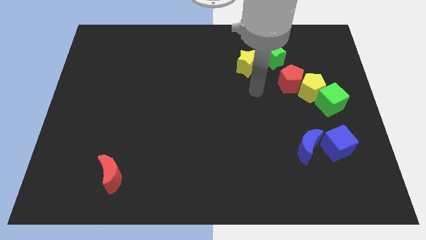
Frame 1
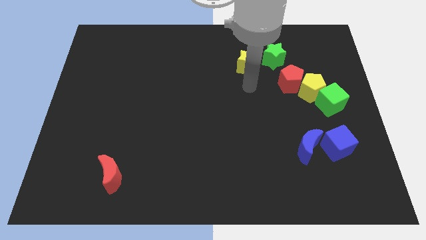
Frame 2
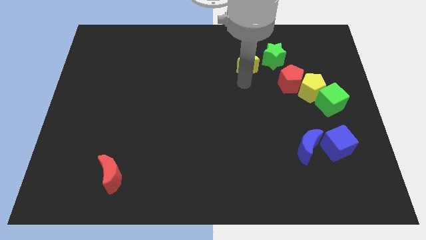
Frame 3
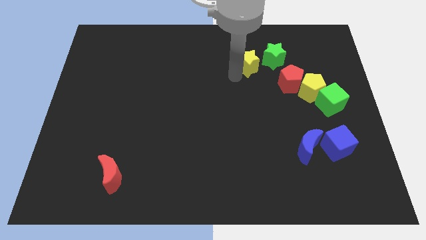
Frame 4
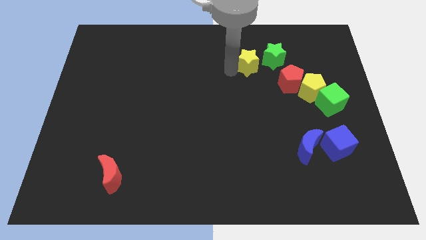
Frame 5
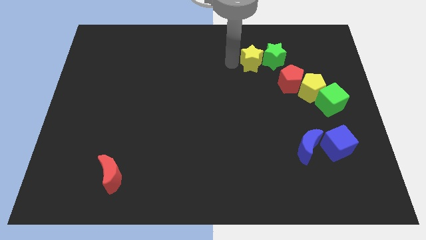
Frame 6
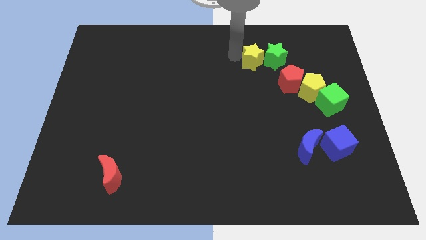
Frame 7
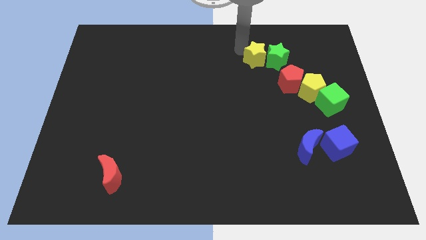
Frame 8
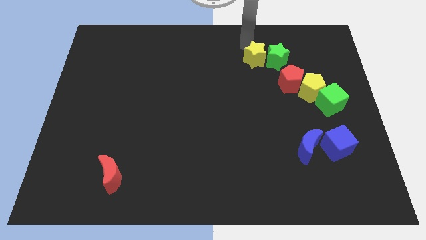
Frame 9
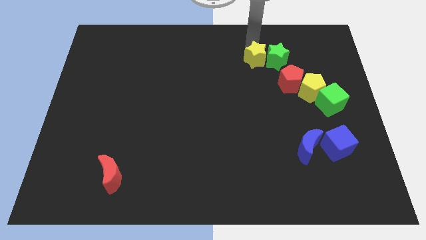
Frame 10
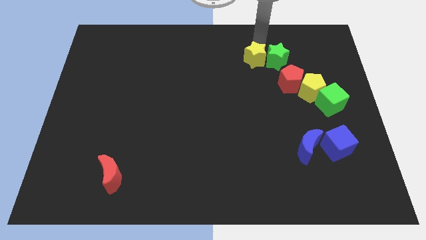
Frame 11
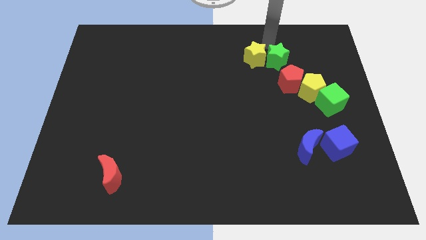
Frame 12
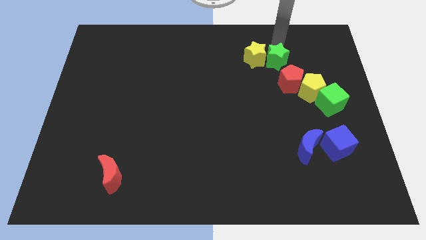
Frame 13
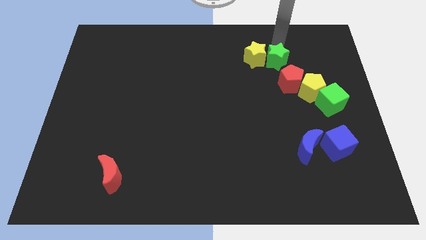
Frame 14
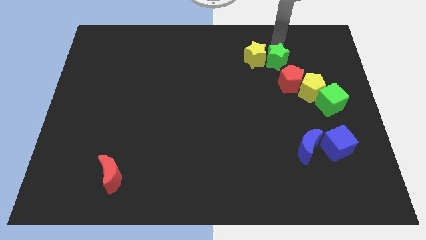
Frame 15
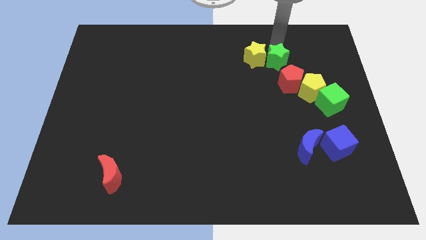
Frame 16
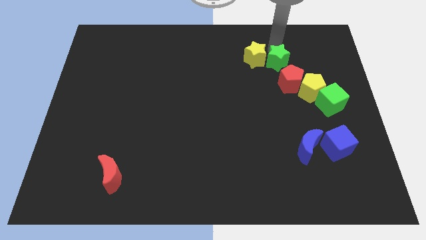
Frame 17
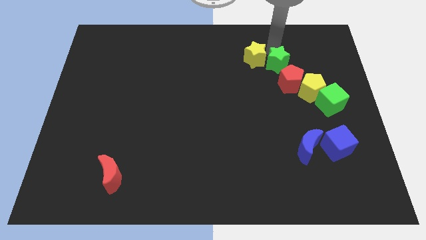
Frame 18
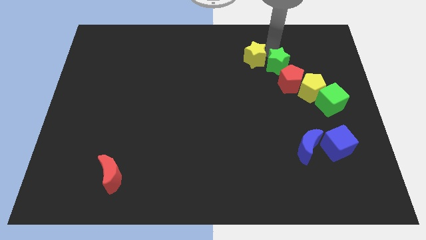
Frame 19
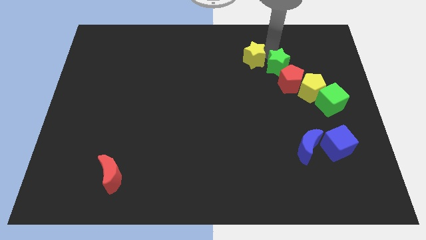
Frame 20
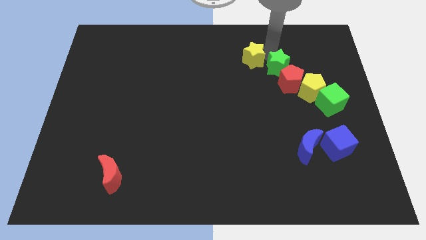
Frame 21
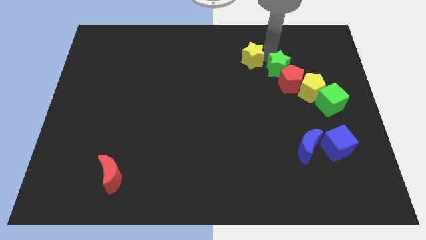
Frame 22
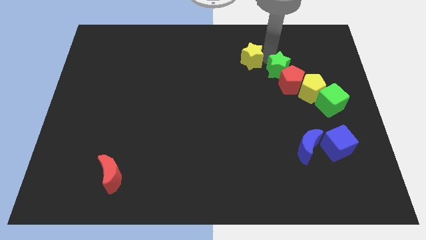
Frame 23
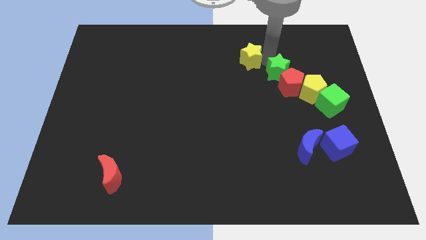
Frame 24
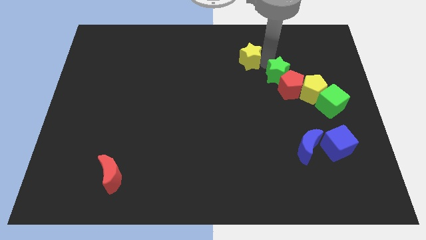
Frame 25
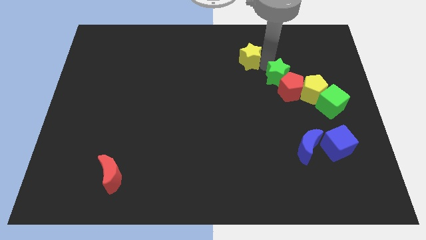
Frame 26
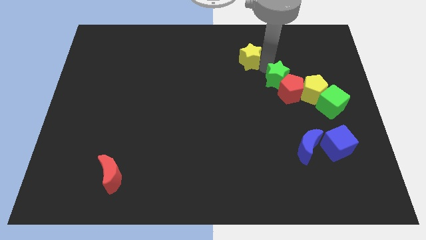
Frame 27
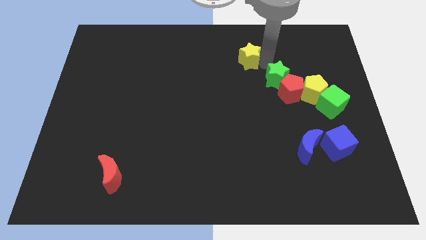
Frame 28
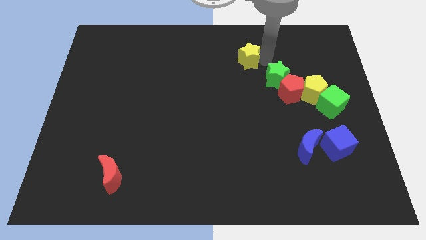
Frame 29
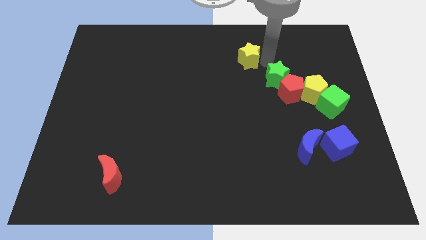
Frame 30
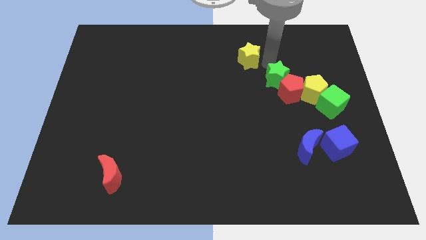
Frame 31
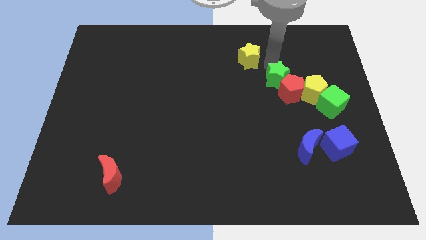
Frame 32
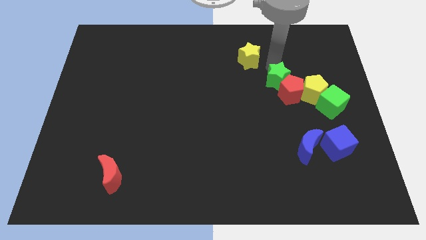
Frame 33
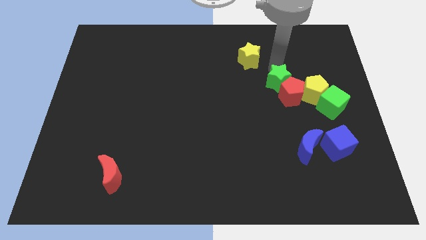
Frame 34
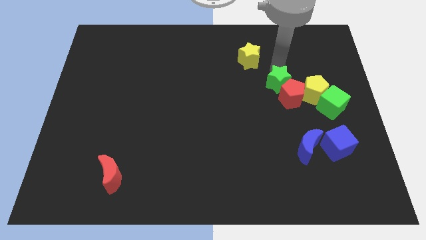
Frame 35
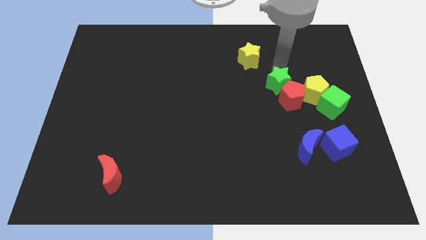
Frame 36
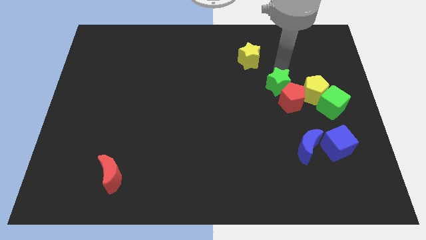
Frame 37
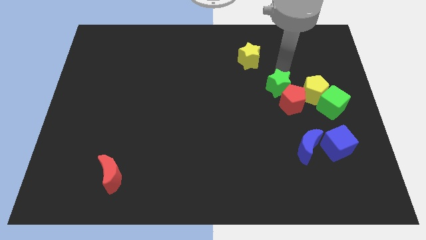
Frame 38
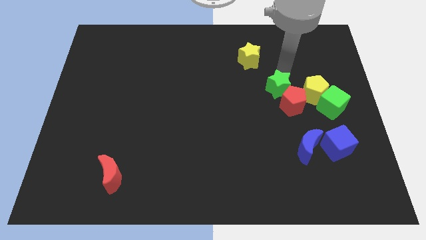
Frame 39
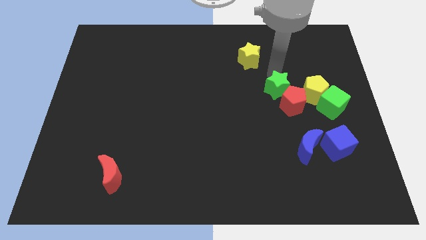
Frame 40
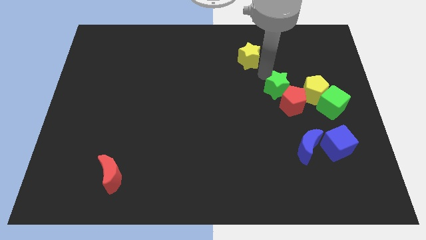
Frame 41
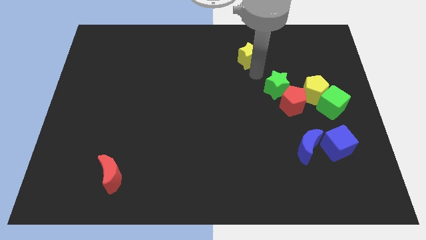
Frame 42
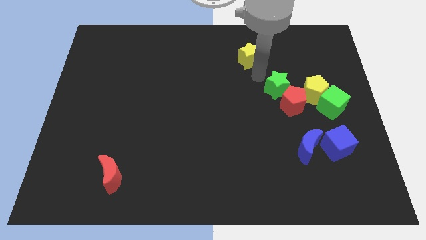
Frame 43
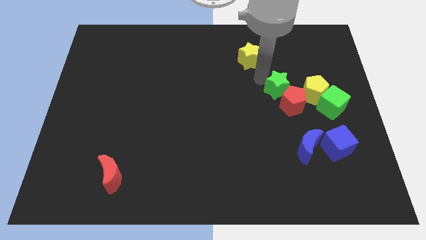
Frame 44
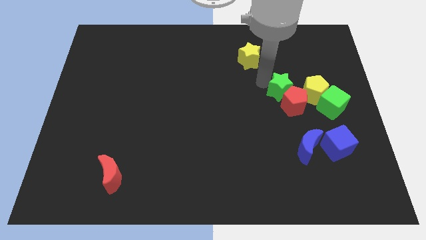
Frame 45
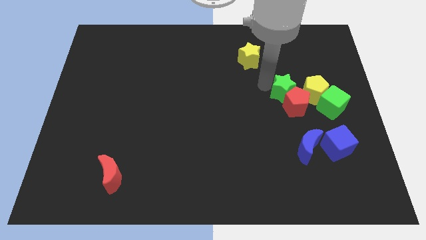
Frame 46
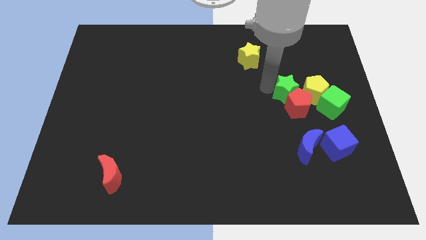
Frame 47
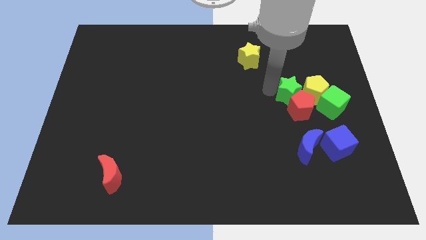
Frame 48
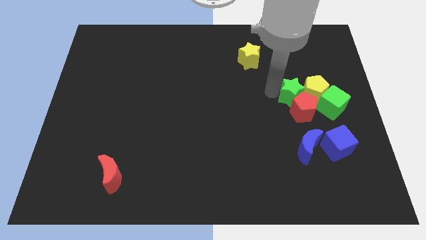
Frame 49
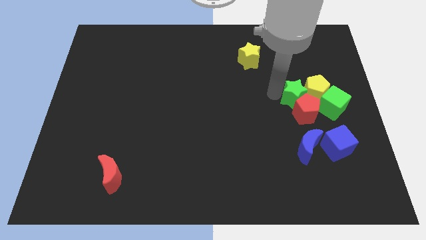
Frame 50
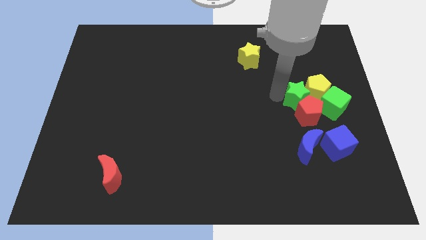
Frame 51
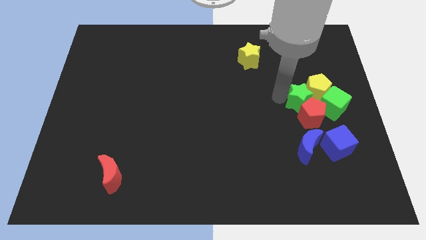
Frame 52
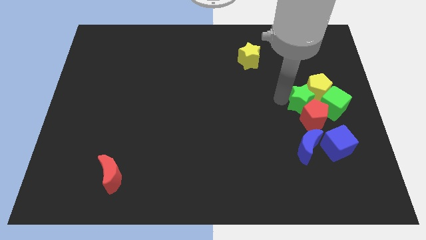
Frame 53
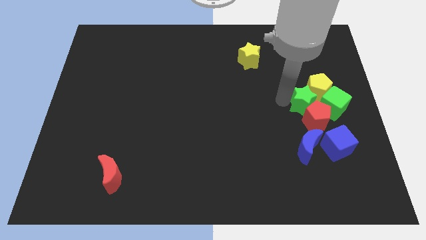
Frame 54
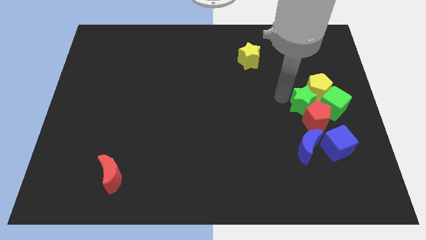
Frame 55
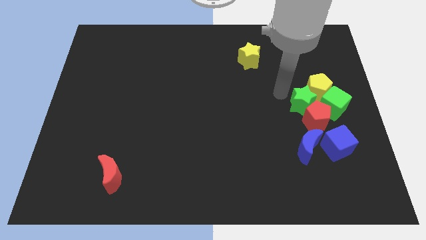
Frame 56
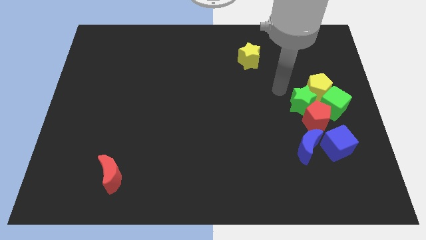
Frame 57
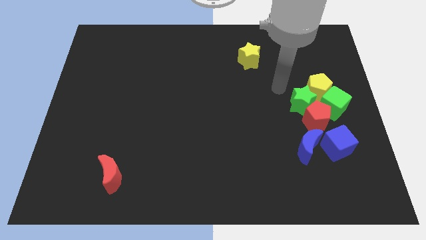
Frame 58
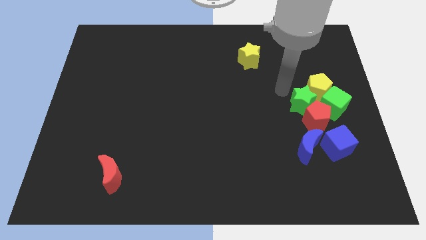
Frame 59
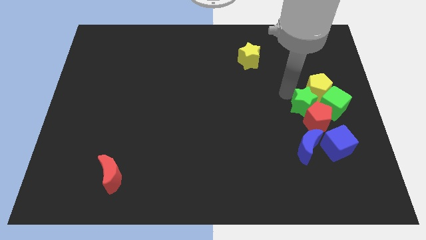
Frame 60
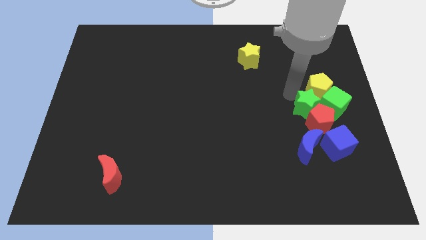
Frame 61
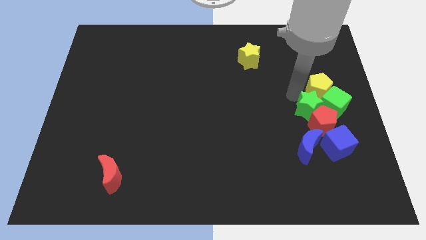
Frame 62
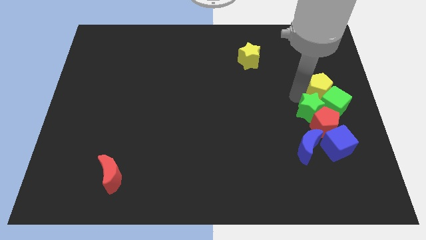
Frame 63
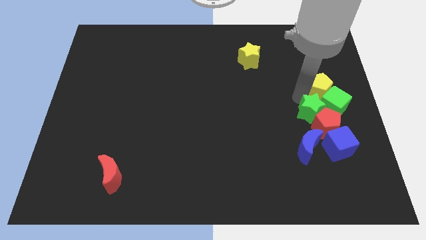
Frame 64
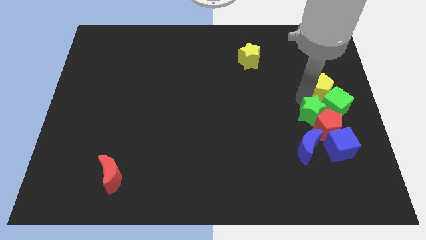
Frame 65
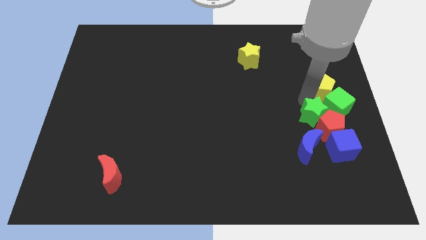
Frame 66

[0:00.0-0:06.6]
slide the green star to the top right of the blue moon
